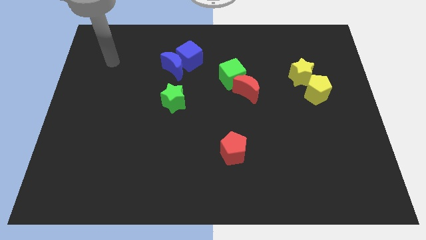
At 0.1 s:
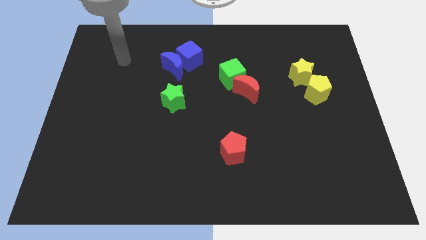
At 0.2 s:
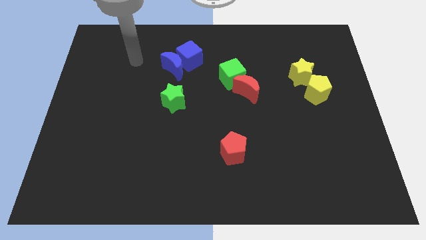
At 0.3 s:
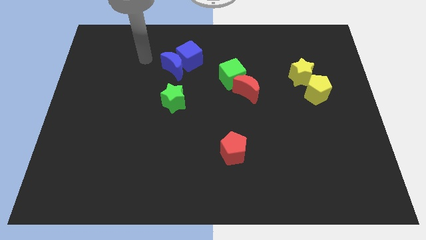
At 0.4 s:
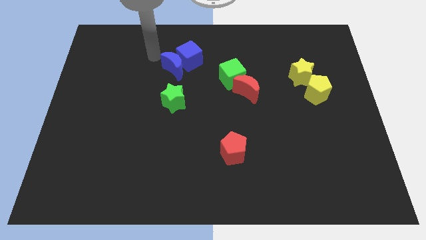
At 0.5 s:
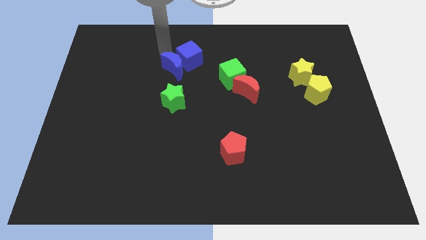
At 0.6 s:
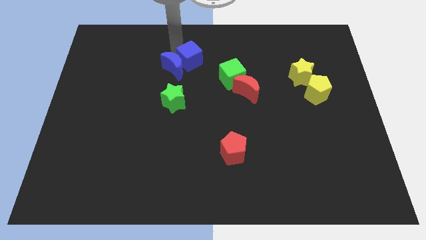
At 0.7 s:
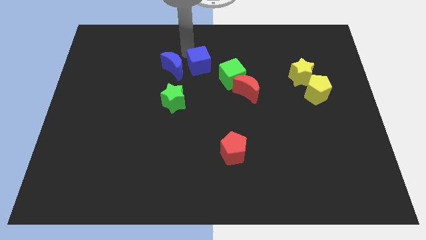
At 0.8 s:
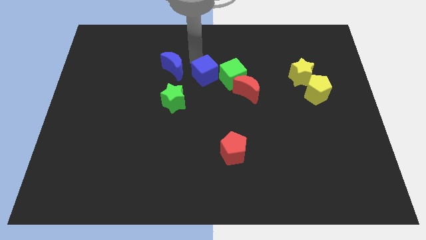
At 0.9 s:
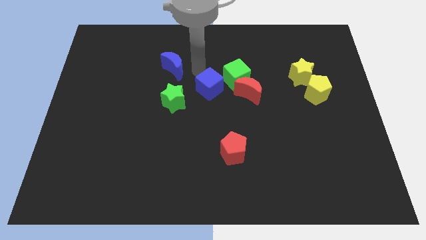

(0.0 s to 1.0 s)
pull the blue moon apart from the blue cube

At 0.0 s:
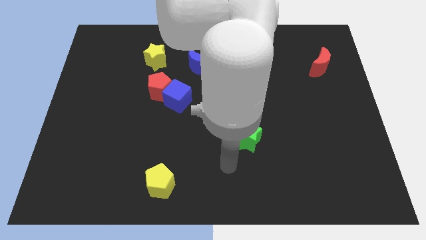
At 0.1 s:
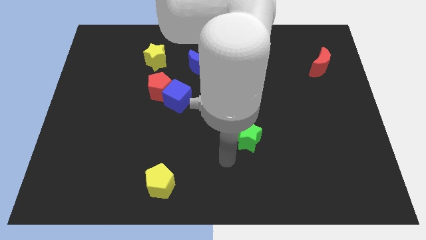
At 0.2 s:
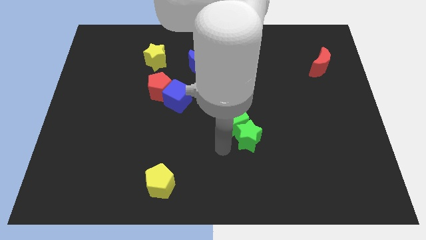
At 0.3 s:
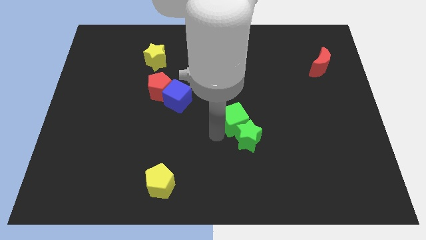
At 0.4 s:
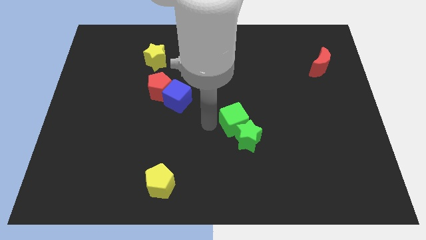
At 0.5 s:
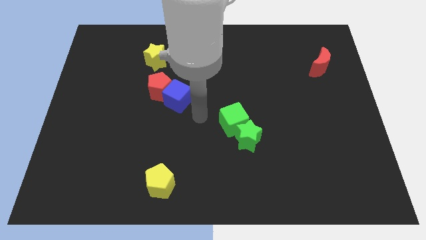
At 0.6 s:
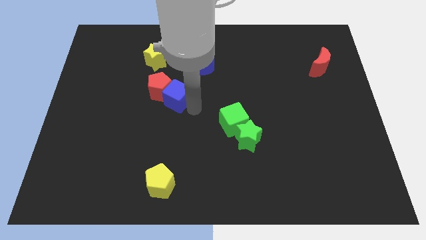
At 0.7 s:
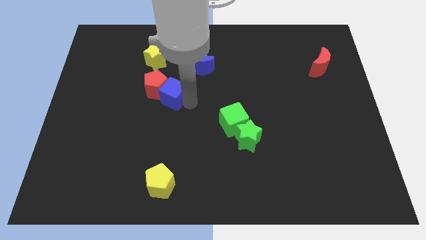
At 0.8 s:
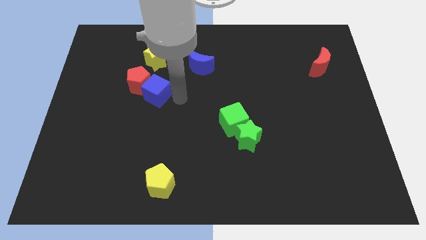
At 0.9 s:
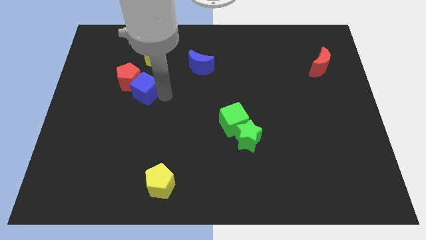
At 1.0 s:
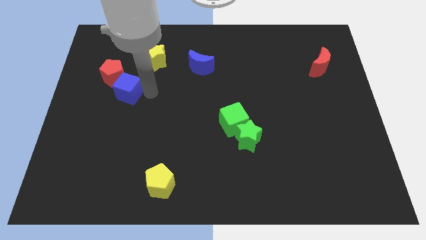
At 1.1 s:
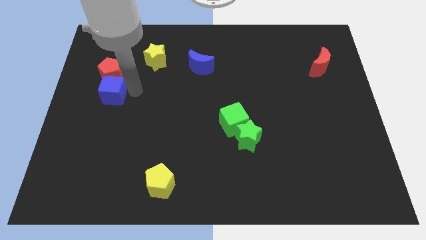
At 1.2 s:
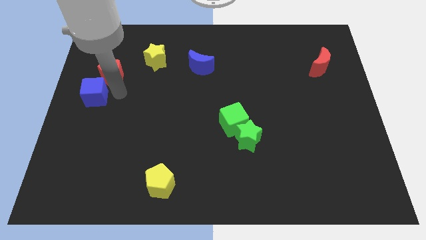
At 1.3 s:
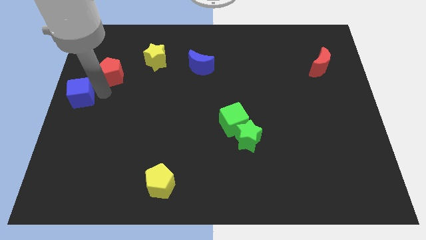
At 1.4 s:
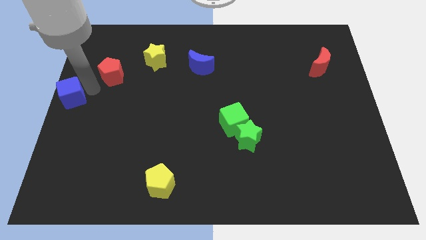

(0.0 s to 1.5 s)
separate the red pentagon from the blue cube

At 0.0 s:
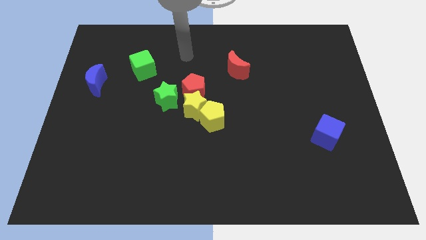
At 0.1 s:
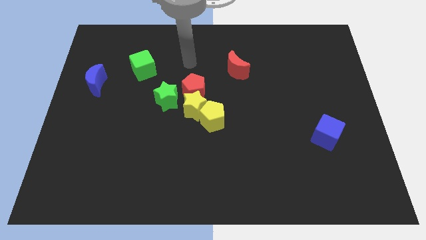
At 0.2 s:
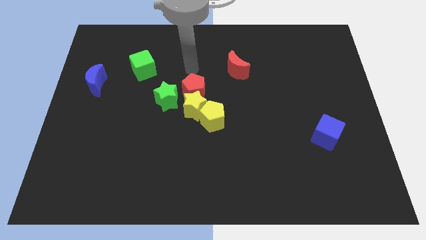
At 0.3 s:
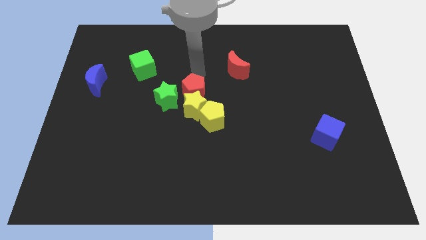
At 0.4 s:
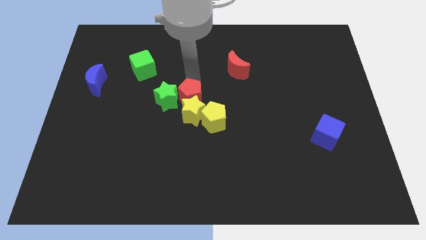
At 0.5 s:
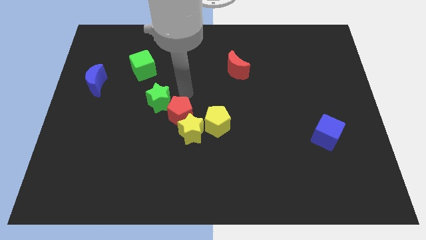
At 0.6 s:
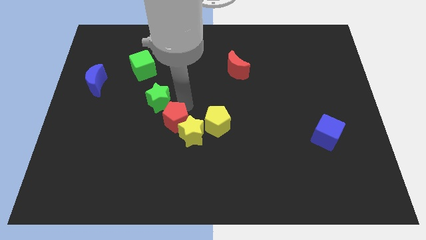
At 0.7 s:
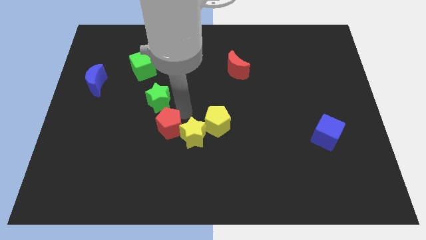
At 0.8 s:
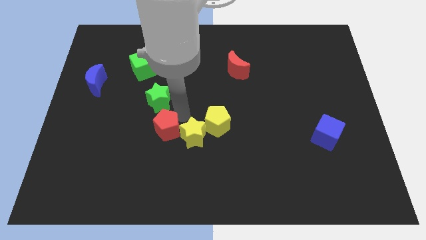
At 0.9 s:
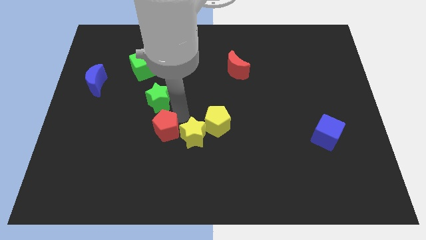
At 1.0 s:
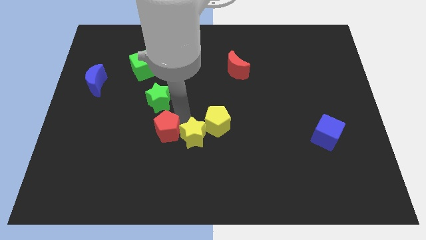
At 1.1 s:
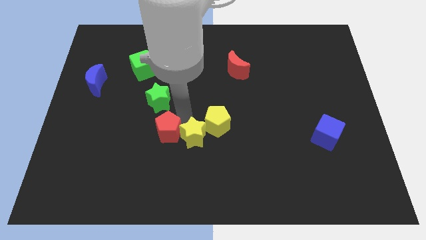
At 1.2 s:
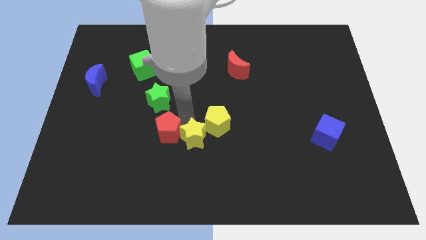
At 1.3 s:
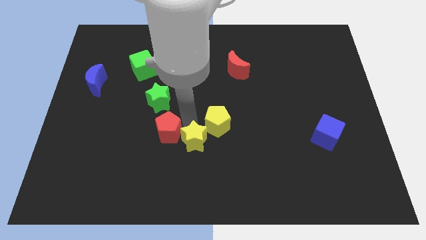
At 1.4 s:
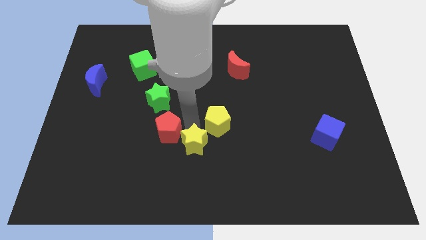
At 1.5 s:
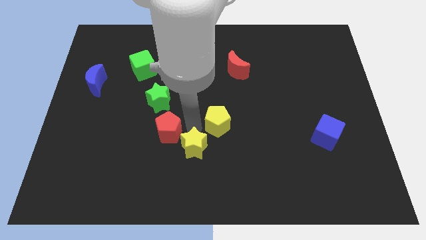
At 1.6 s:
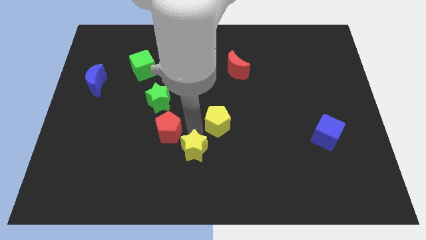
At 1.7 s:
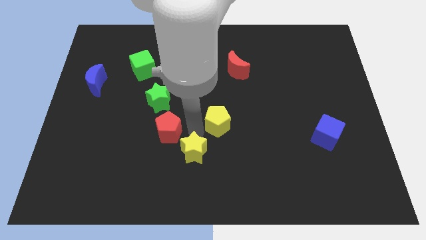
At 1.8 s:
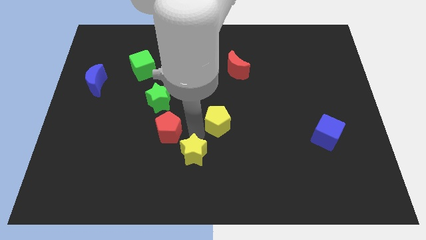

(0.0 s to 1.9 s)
move the yellow star away from the group

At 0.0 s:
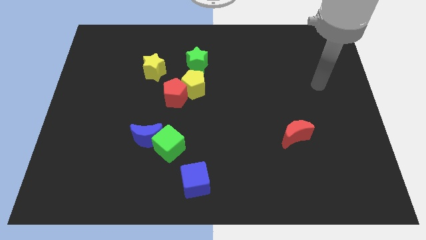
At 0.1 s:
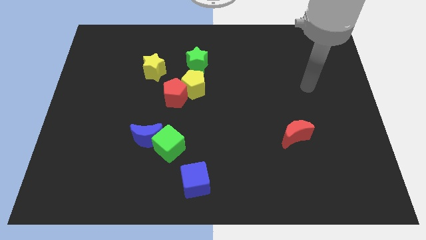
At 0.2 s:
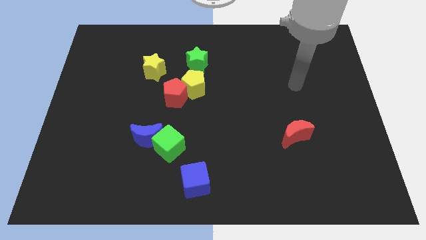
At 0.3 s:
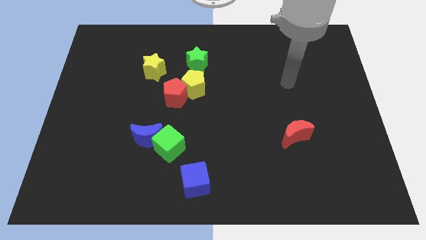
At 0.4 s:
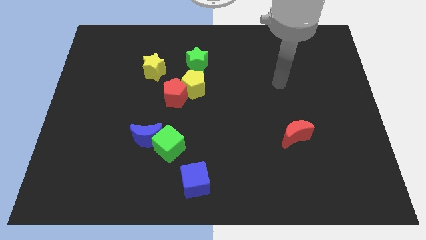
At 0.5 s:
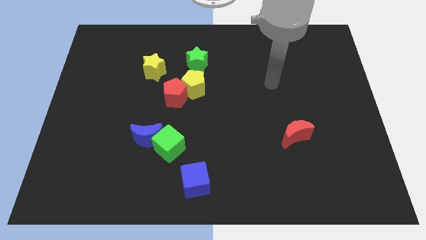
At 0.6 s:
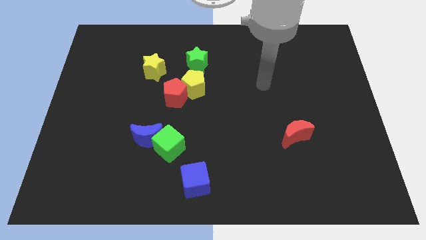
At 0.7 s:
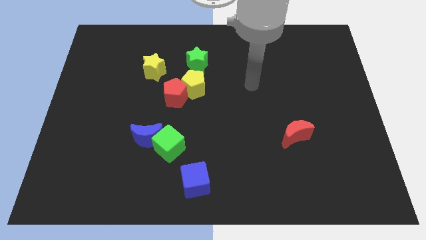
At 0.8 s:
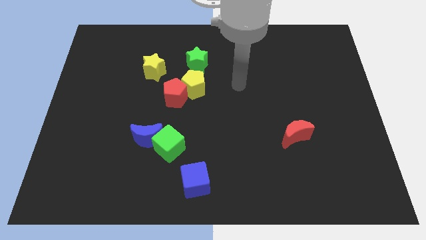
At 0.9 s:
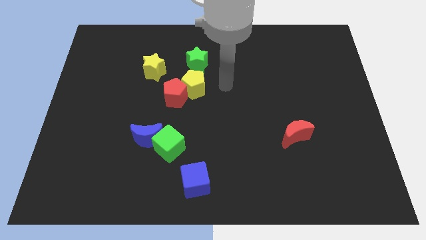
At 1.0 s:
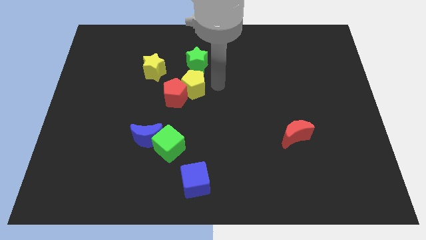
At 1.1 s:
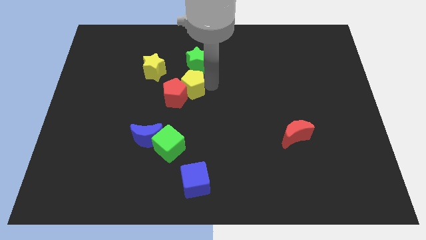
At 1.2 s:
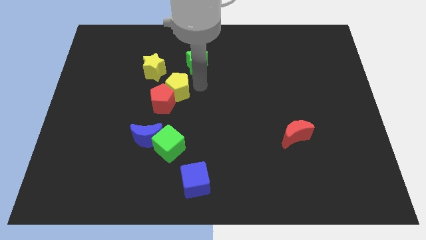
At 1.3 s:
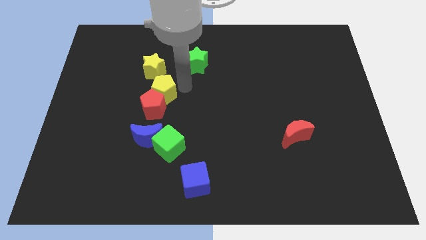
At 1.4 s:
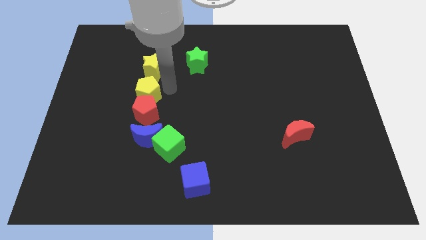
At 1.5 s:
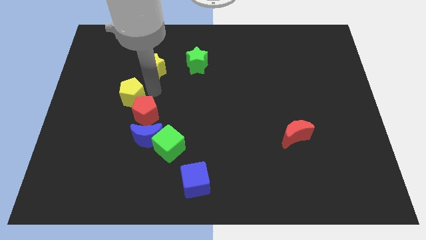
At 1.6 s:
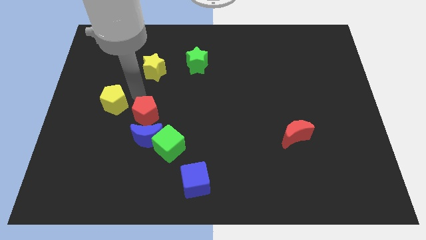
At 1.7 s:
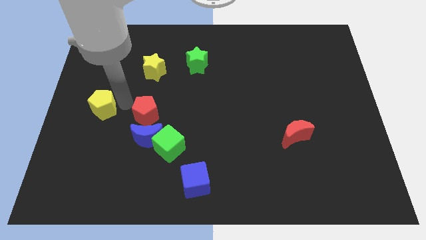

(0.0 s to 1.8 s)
move the red pentagon away from the yellow pentagon

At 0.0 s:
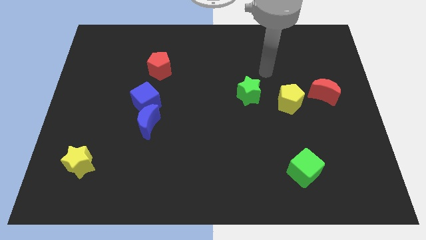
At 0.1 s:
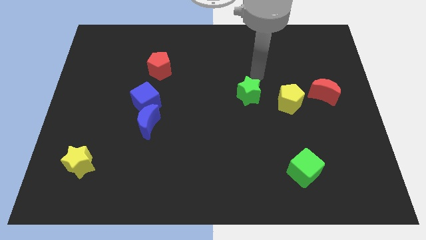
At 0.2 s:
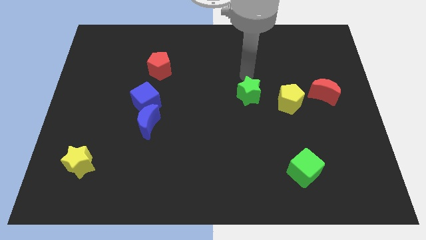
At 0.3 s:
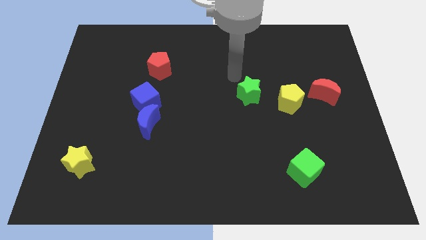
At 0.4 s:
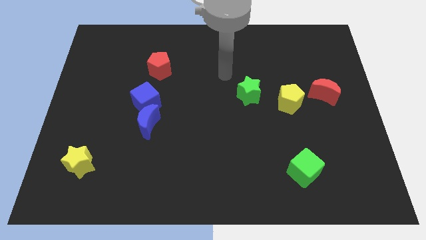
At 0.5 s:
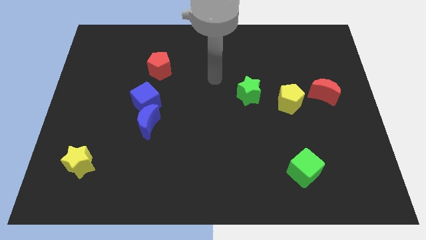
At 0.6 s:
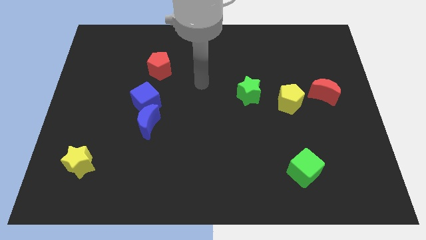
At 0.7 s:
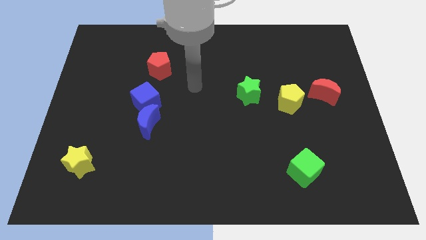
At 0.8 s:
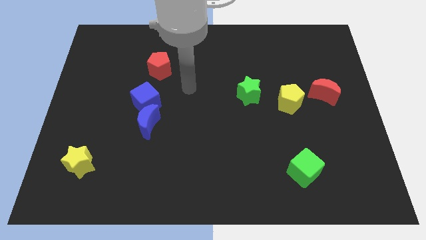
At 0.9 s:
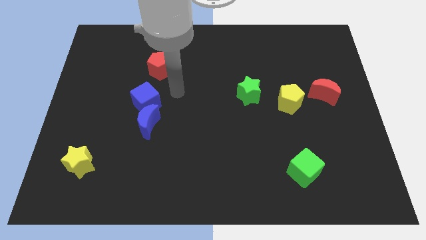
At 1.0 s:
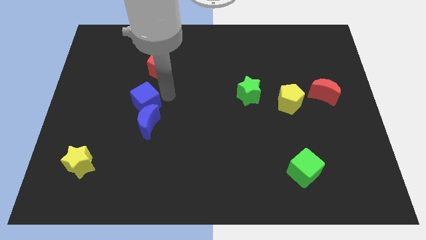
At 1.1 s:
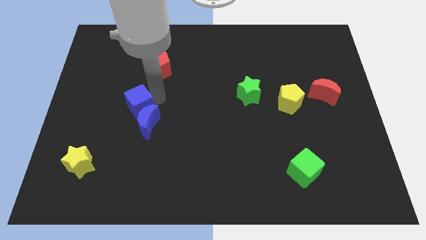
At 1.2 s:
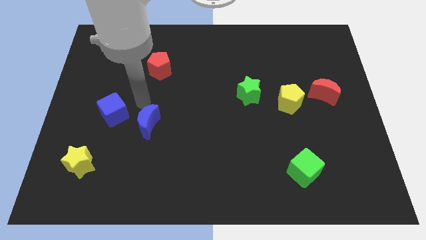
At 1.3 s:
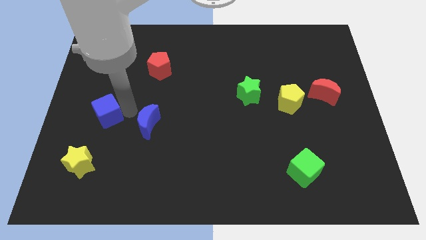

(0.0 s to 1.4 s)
move the blue moon away from the blue cube

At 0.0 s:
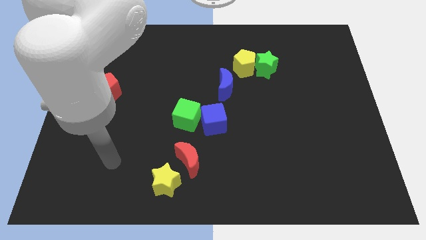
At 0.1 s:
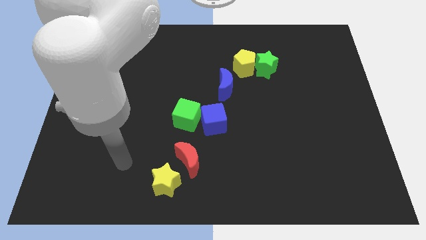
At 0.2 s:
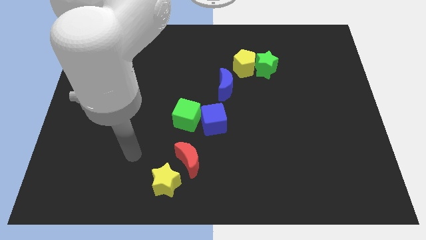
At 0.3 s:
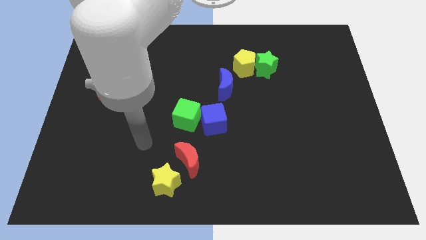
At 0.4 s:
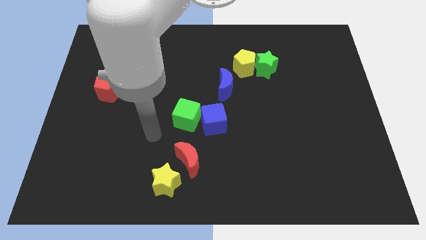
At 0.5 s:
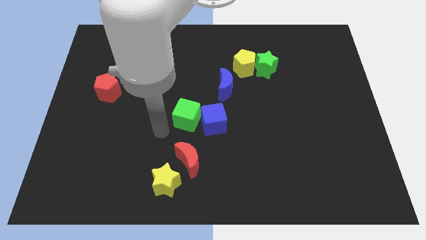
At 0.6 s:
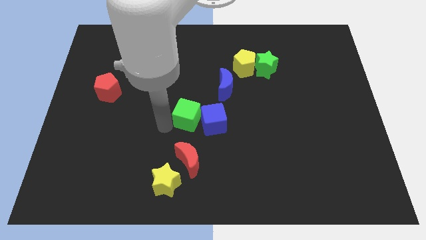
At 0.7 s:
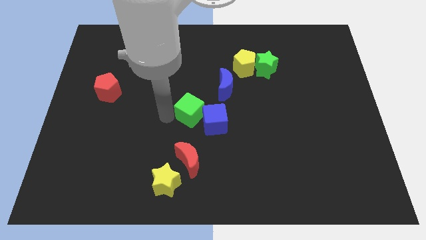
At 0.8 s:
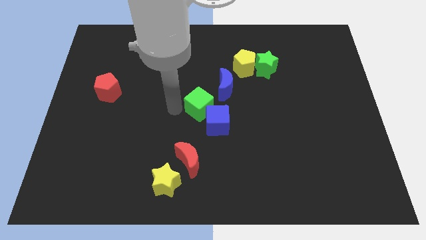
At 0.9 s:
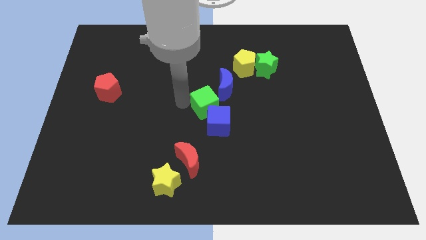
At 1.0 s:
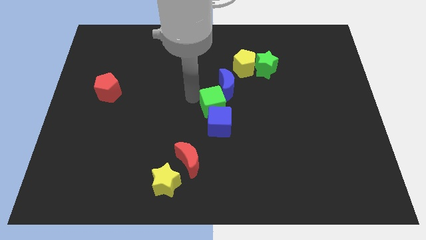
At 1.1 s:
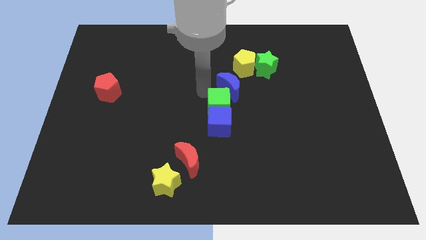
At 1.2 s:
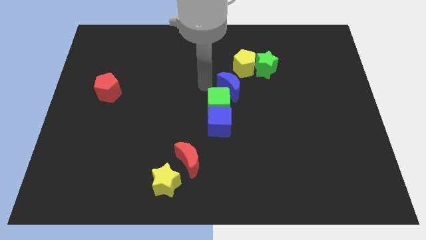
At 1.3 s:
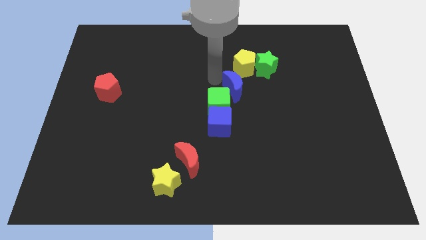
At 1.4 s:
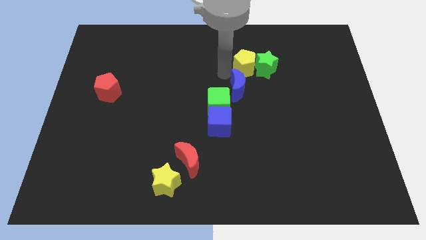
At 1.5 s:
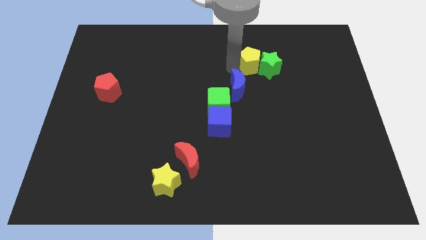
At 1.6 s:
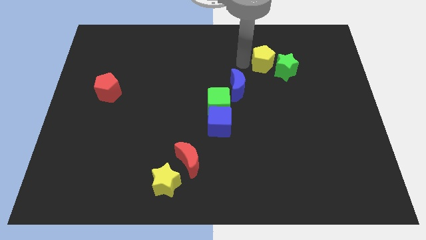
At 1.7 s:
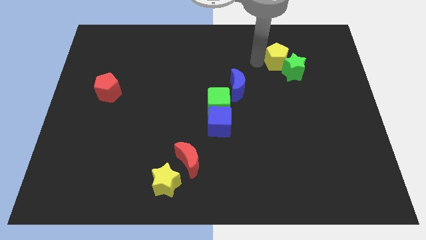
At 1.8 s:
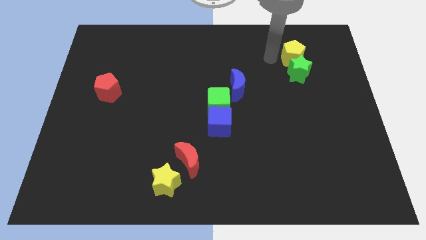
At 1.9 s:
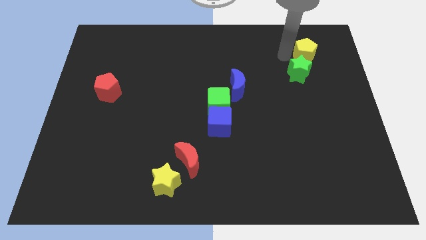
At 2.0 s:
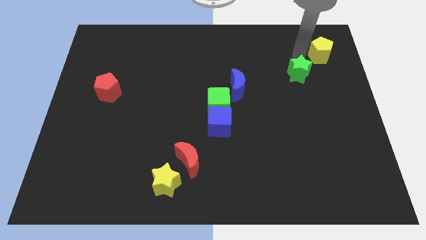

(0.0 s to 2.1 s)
pull the green star apart from the yellow pentagon
